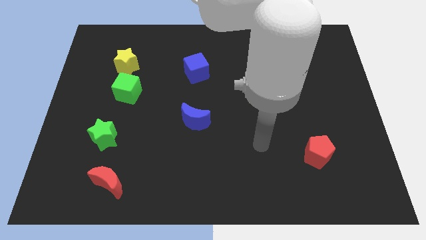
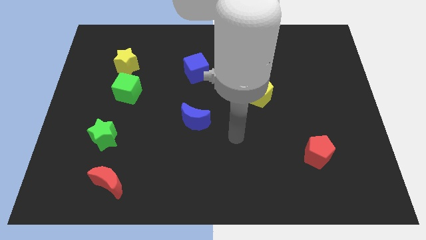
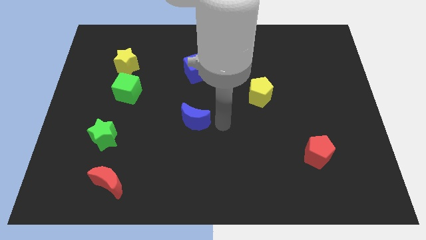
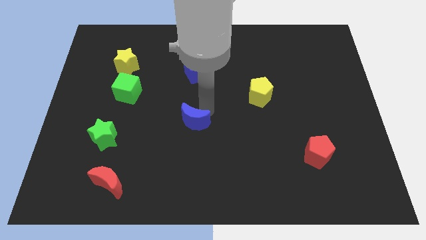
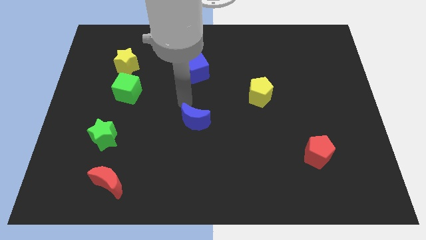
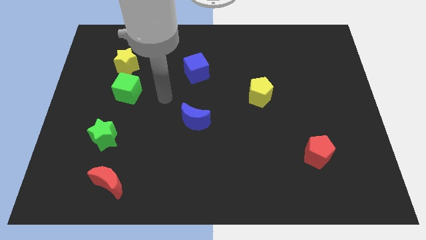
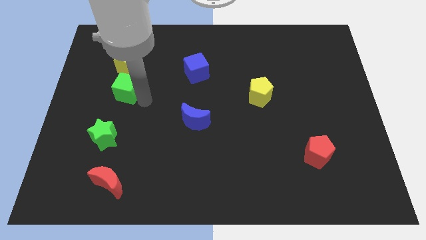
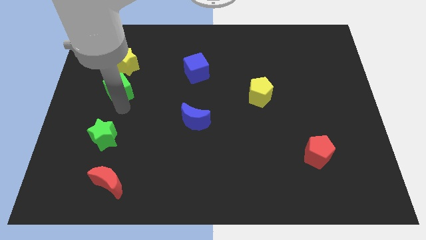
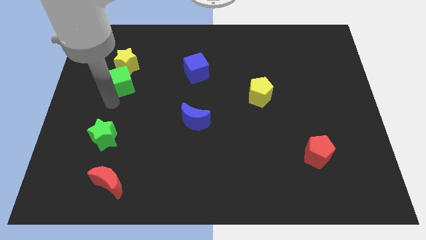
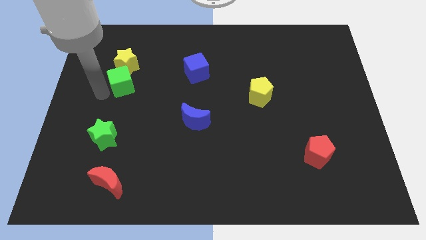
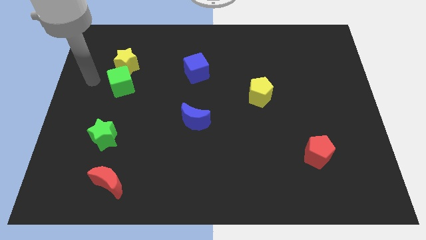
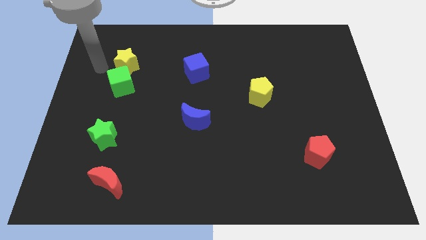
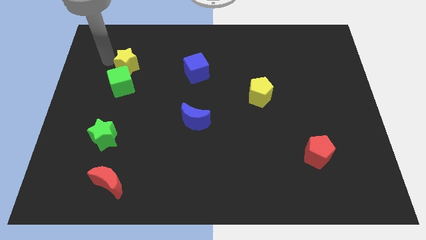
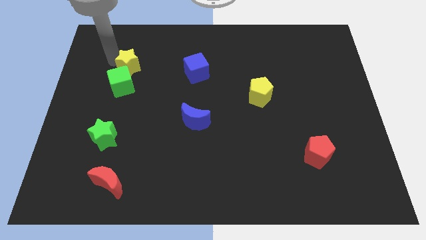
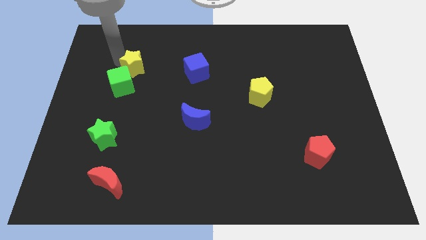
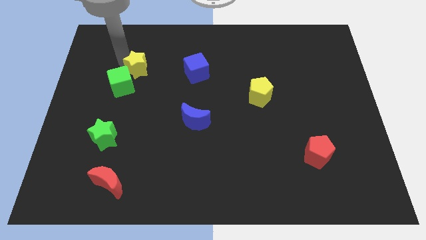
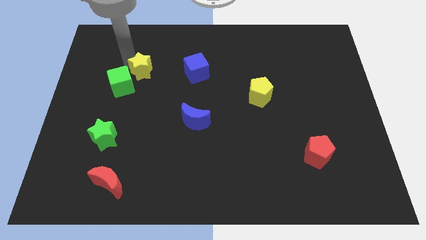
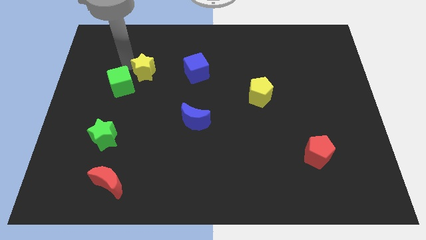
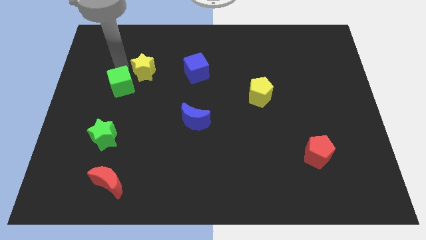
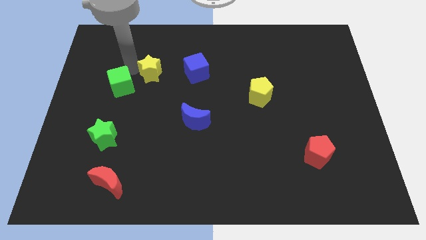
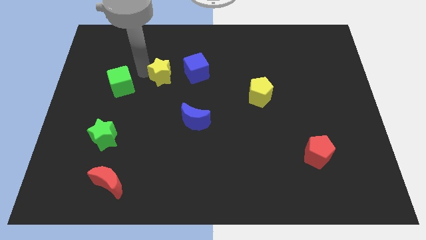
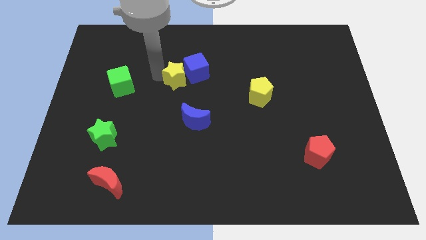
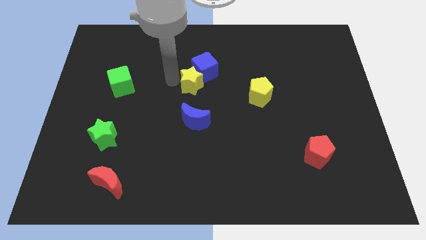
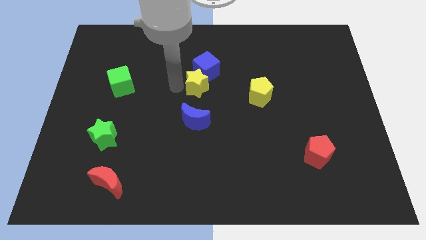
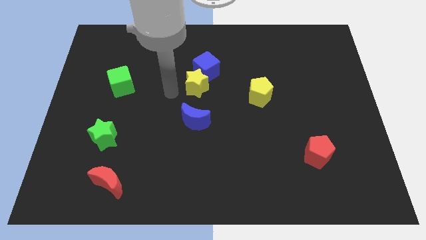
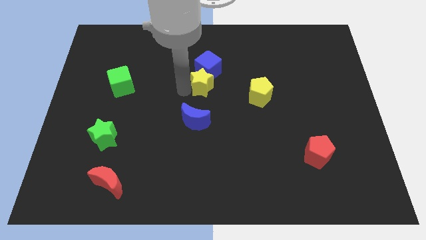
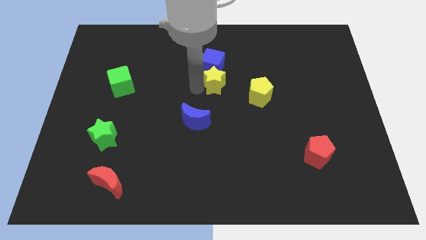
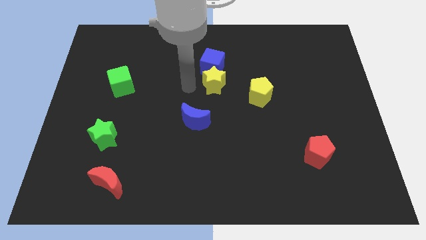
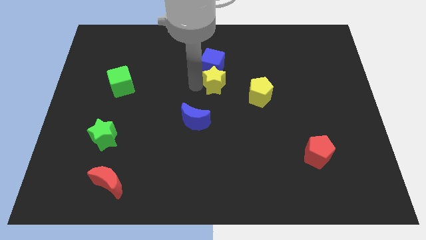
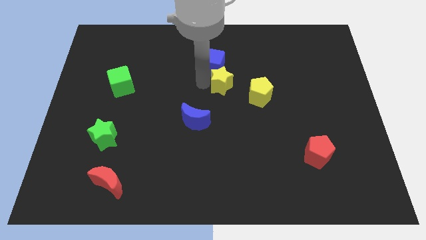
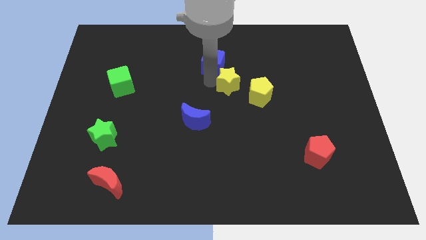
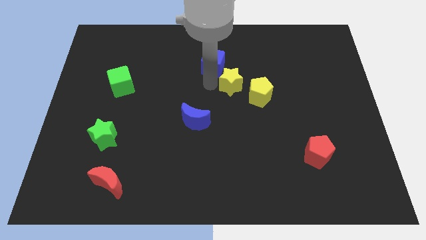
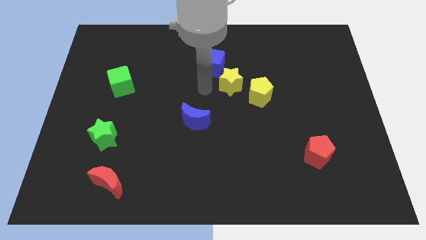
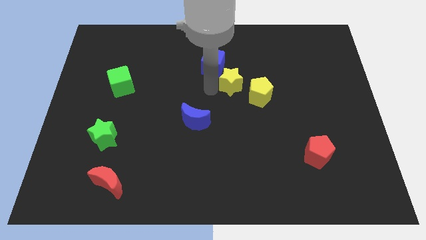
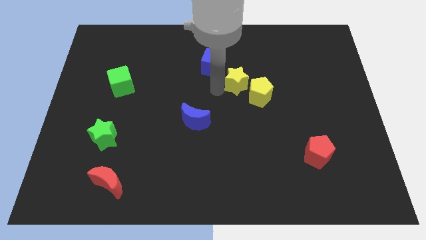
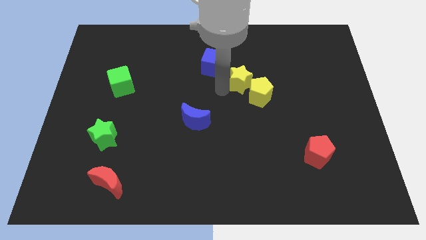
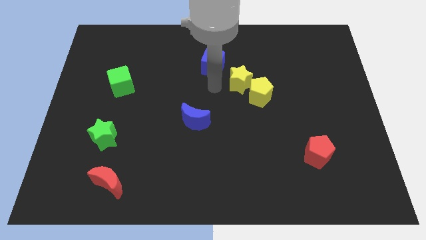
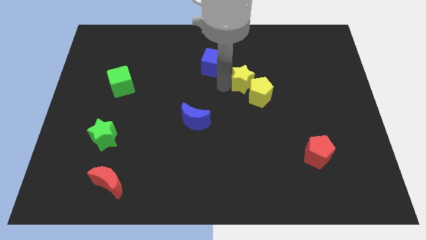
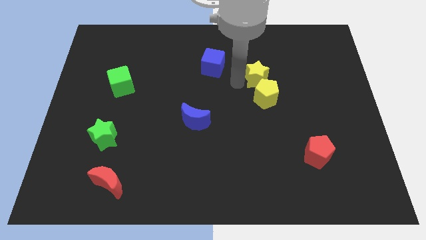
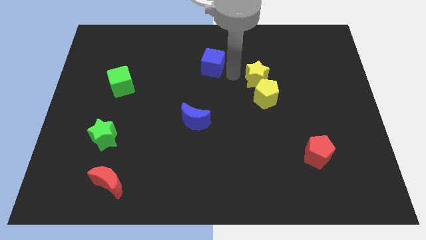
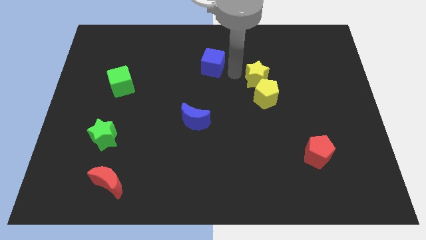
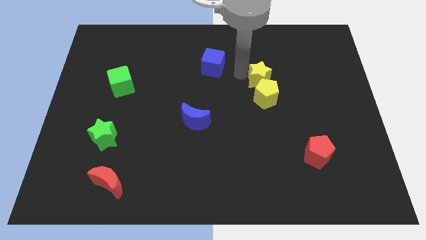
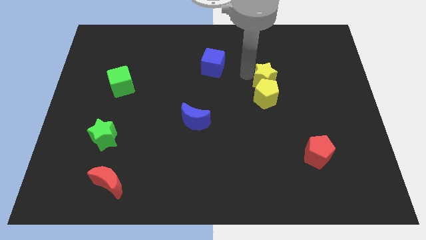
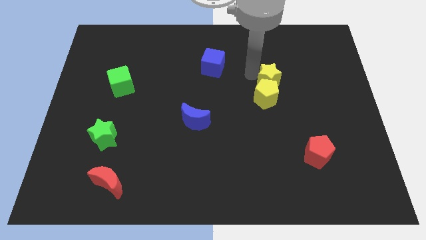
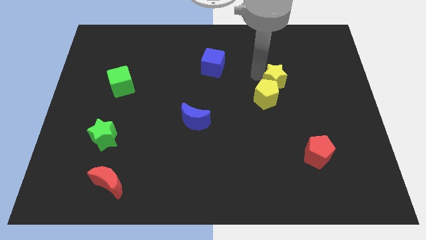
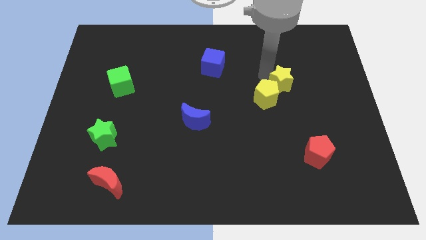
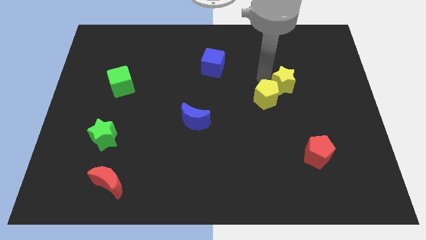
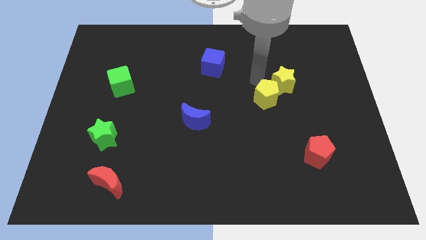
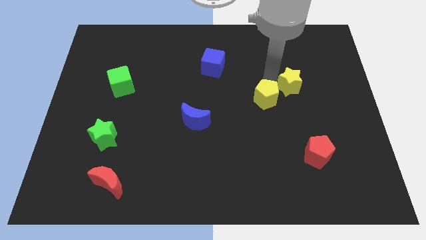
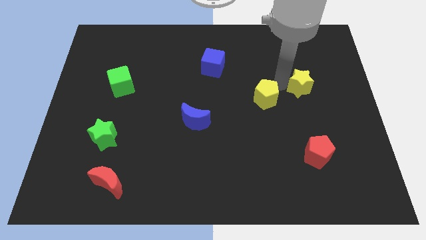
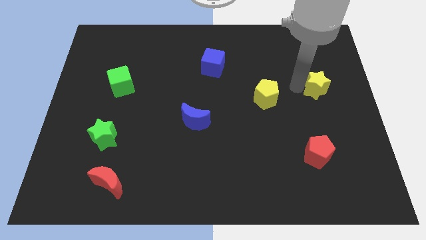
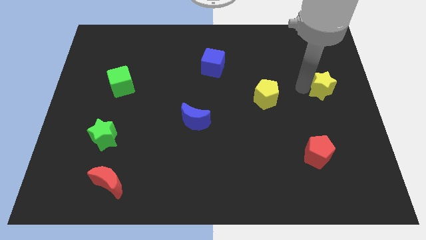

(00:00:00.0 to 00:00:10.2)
put the yellow star to the center right

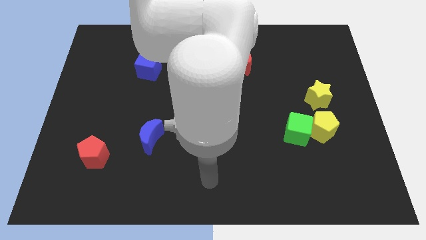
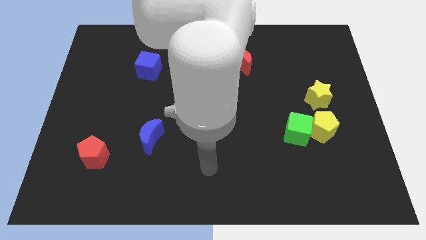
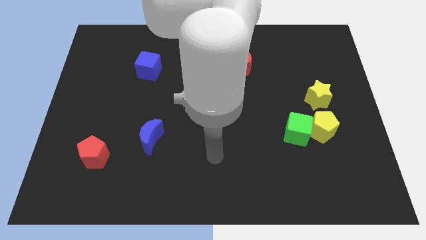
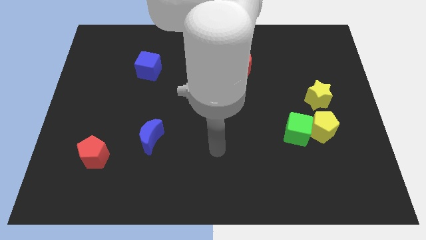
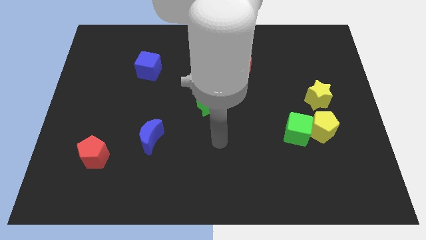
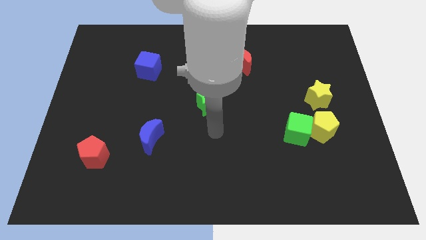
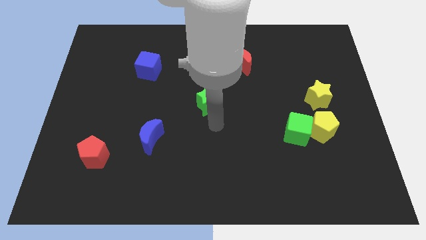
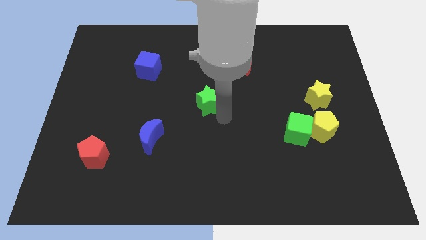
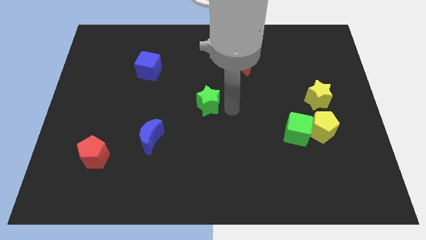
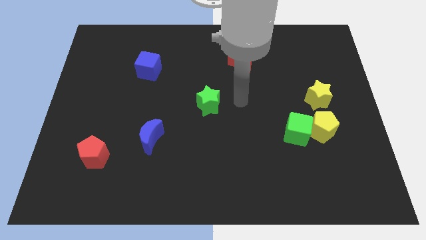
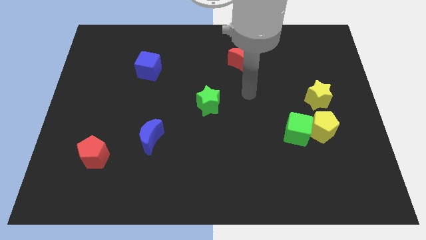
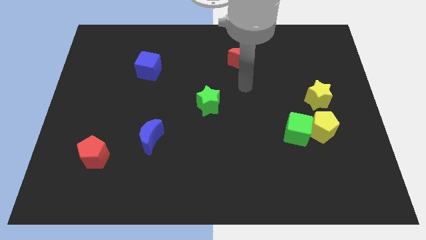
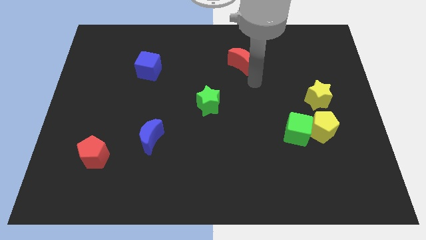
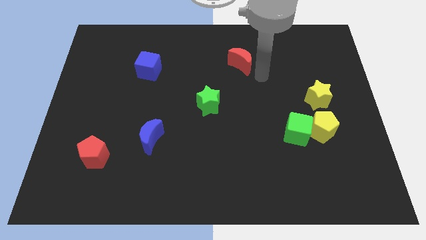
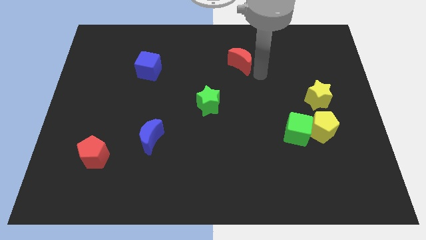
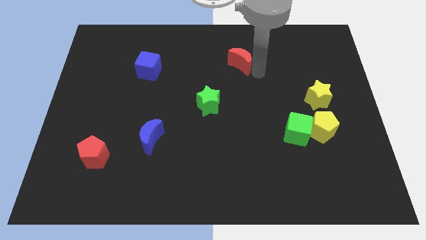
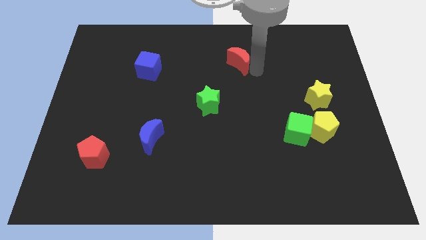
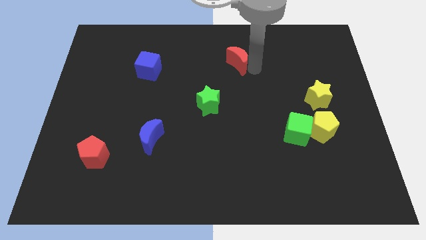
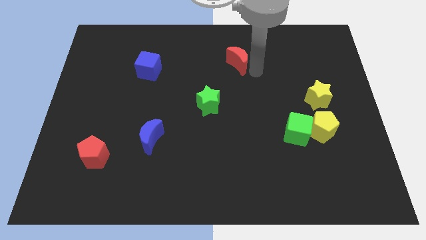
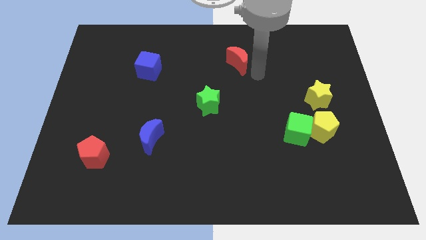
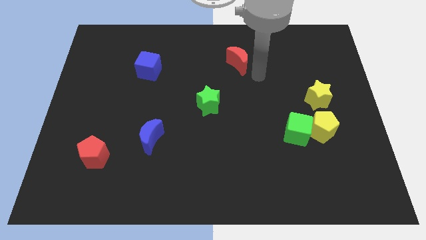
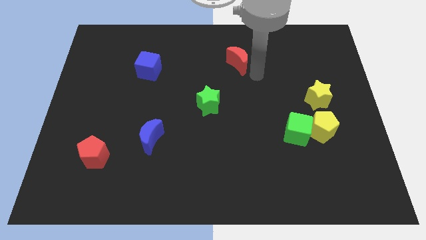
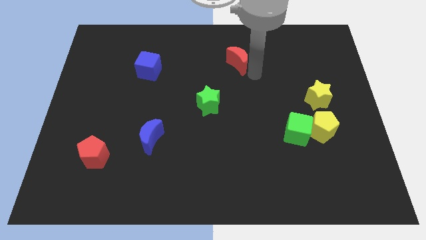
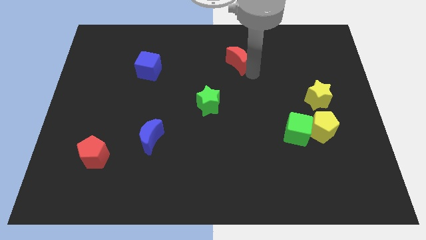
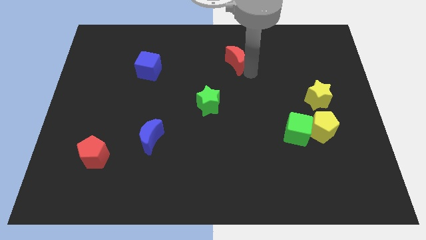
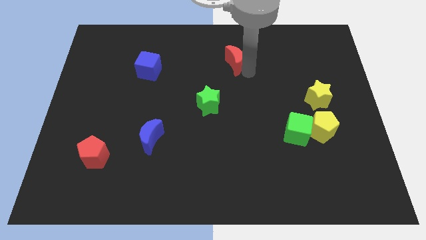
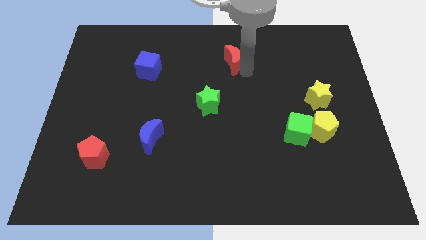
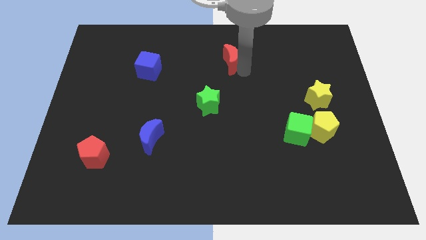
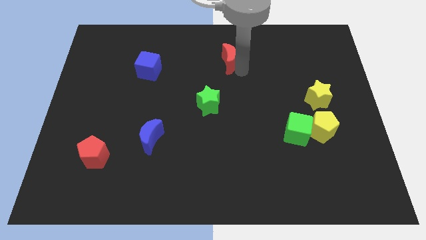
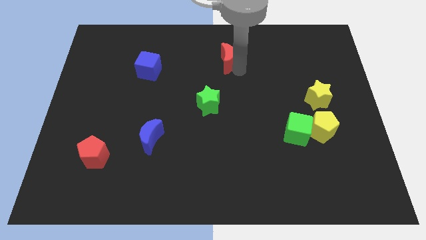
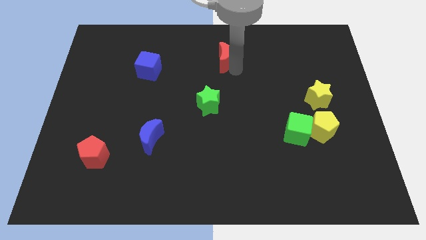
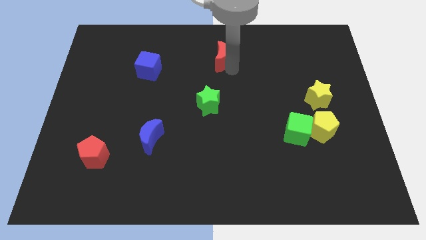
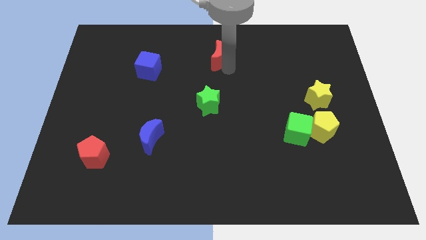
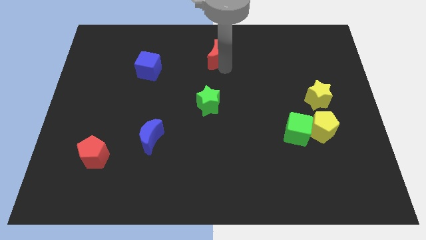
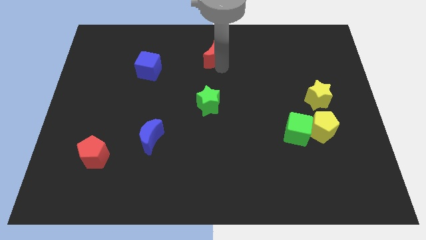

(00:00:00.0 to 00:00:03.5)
slide the red moon to the towards your base
